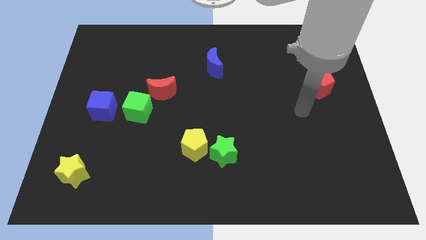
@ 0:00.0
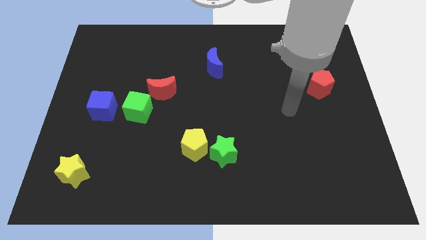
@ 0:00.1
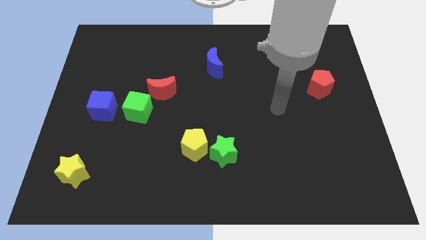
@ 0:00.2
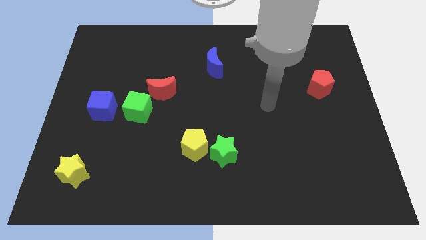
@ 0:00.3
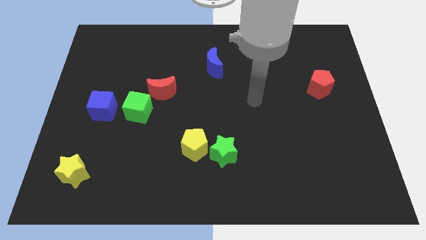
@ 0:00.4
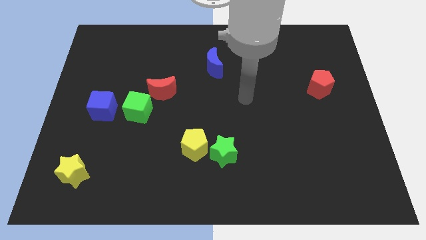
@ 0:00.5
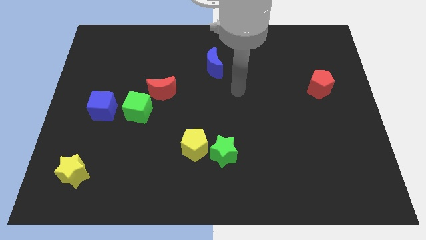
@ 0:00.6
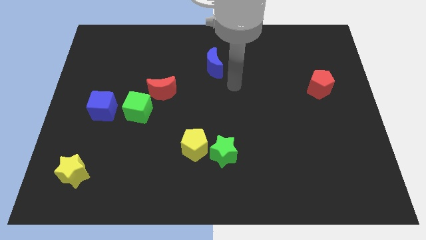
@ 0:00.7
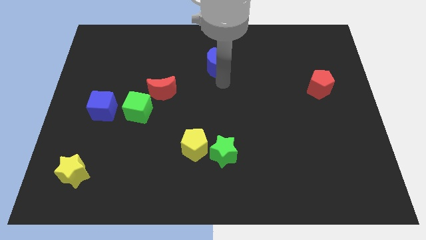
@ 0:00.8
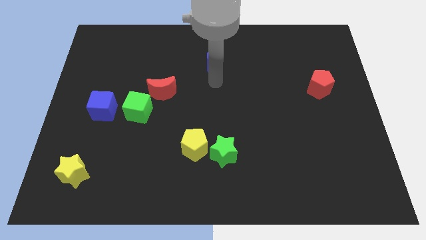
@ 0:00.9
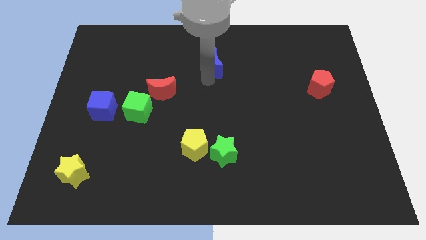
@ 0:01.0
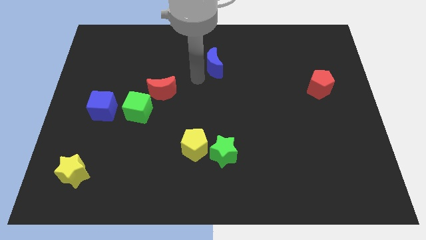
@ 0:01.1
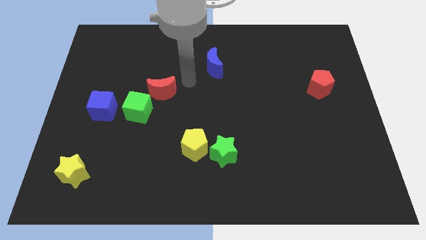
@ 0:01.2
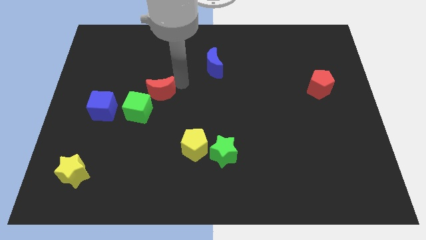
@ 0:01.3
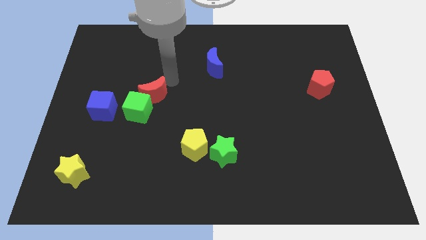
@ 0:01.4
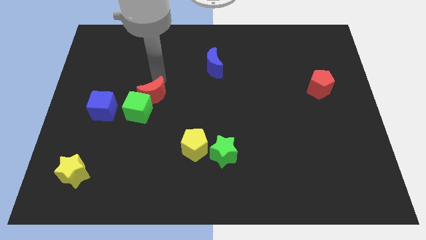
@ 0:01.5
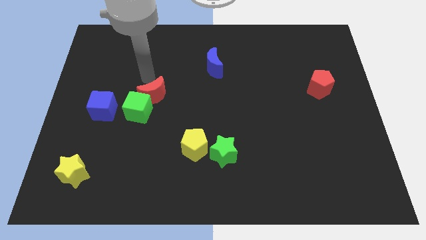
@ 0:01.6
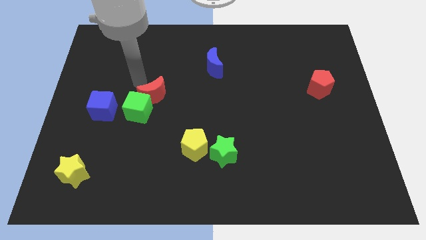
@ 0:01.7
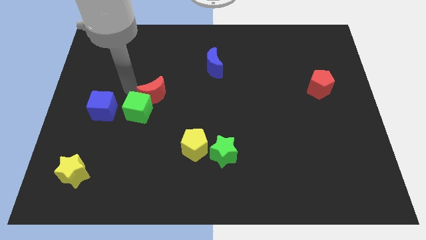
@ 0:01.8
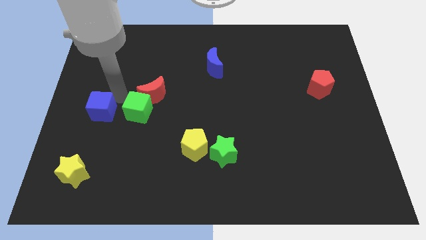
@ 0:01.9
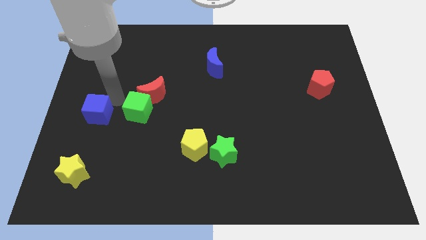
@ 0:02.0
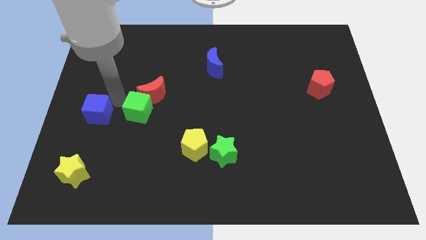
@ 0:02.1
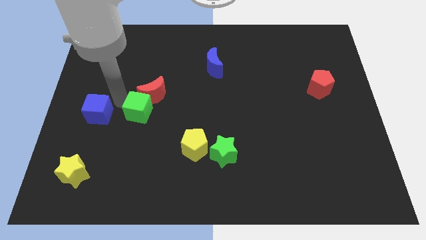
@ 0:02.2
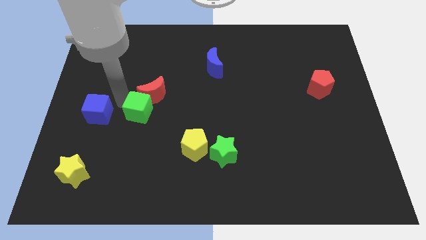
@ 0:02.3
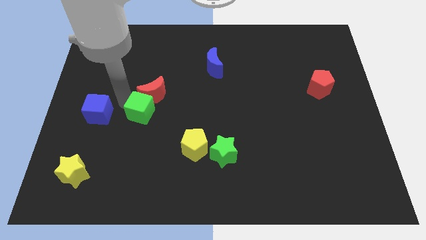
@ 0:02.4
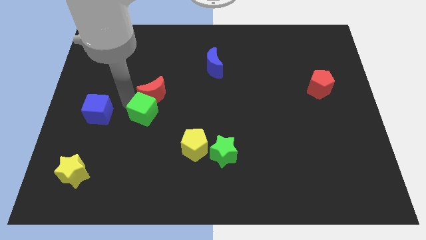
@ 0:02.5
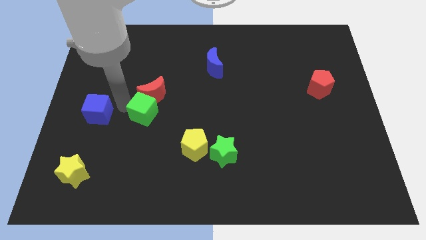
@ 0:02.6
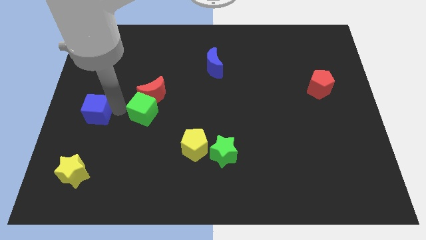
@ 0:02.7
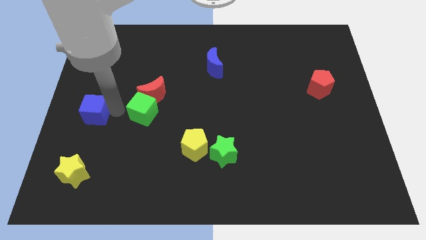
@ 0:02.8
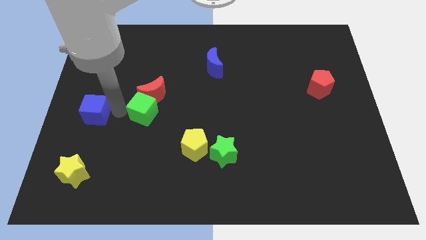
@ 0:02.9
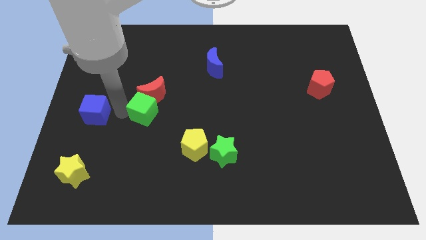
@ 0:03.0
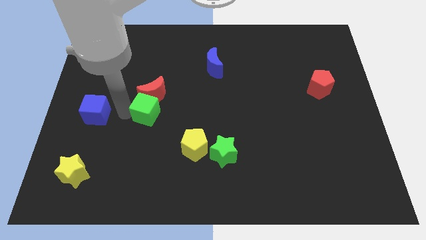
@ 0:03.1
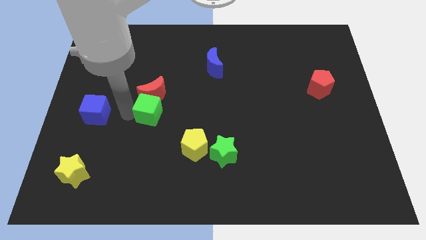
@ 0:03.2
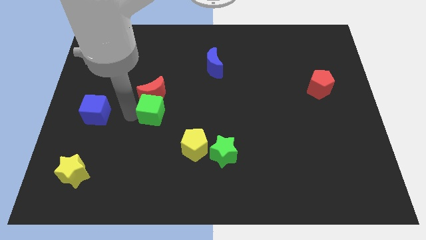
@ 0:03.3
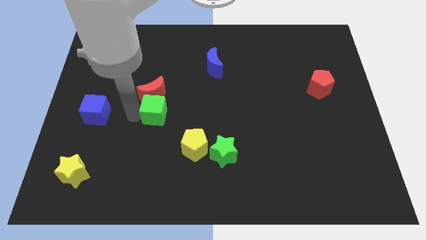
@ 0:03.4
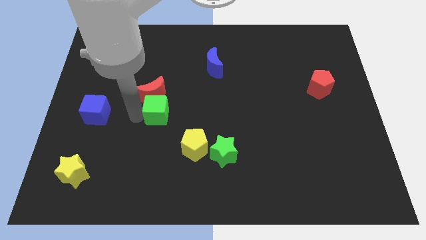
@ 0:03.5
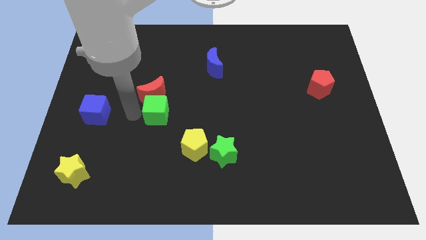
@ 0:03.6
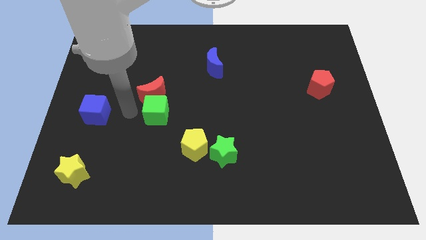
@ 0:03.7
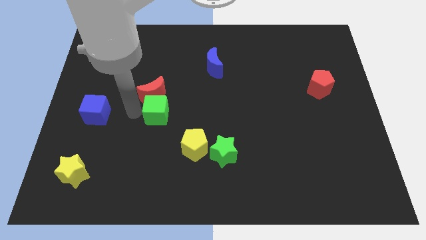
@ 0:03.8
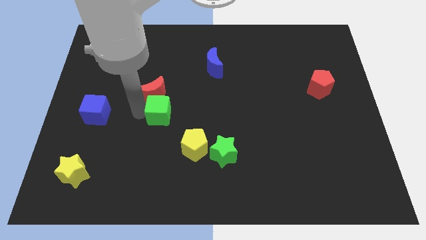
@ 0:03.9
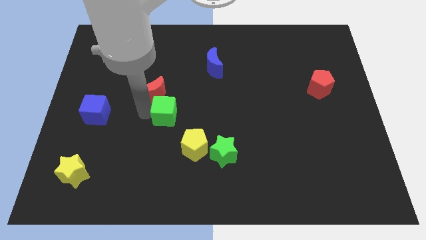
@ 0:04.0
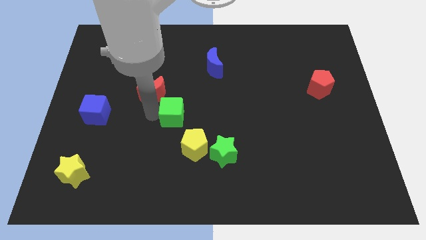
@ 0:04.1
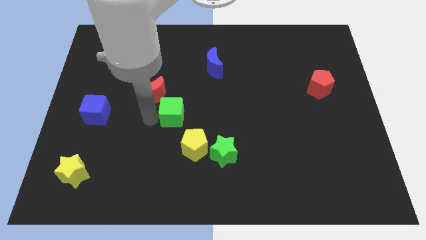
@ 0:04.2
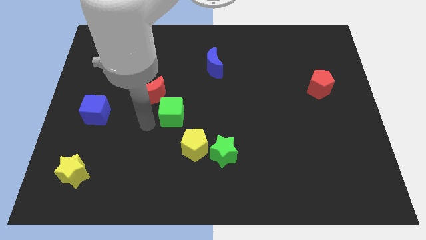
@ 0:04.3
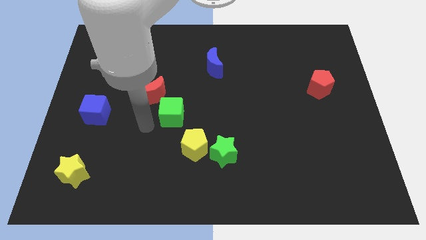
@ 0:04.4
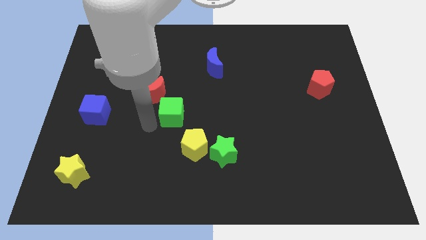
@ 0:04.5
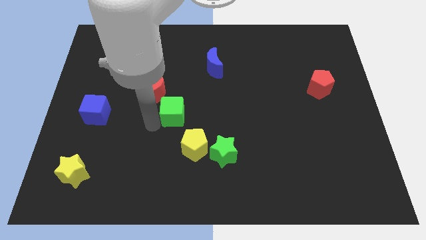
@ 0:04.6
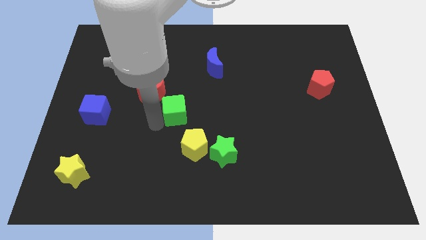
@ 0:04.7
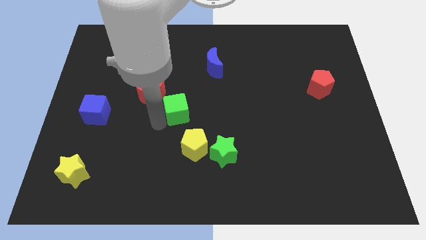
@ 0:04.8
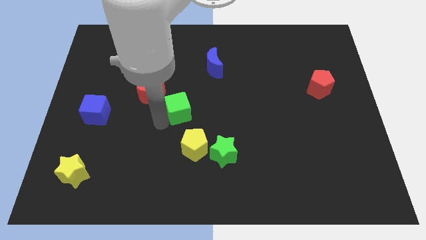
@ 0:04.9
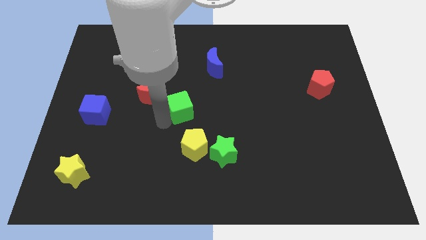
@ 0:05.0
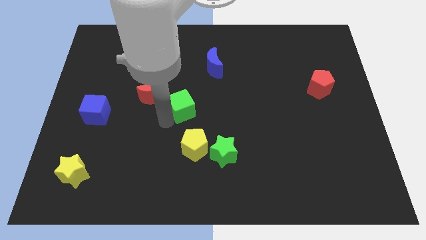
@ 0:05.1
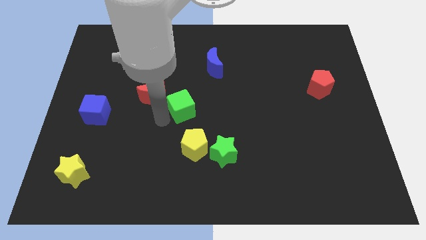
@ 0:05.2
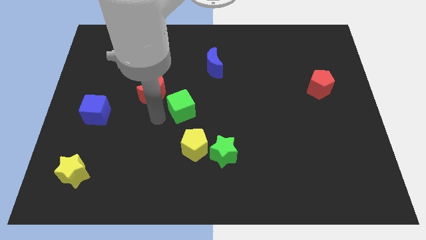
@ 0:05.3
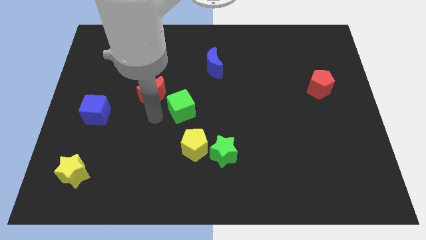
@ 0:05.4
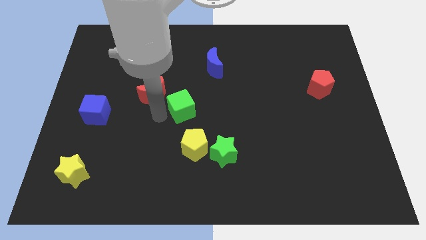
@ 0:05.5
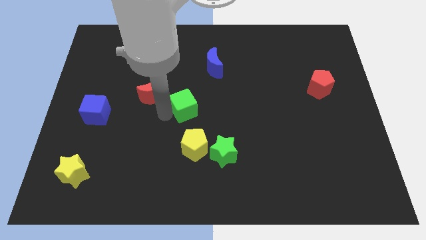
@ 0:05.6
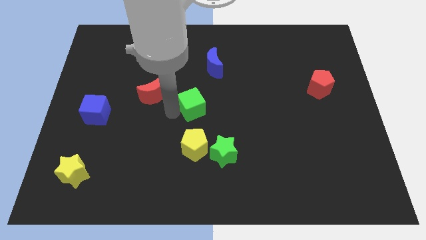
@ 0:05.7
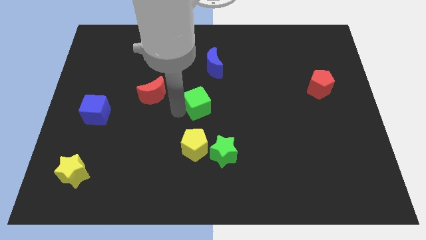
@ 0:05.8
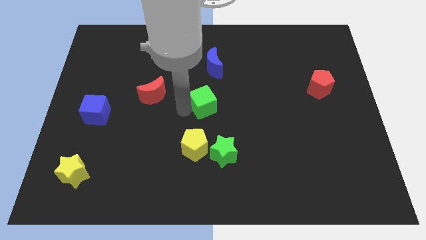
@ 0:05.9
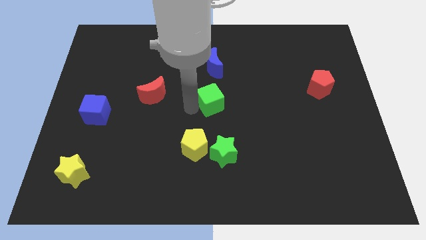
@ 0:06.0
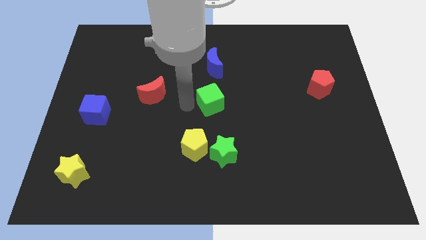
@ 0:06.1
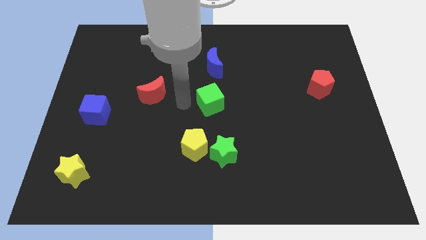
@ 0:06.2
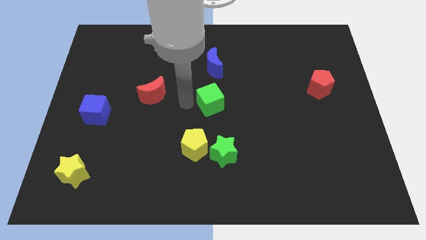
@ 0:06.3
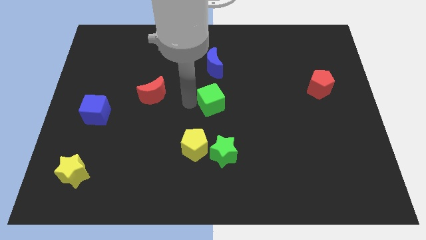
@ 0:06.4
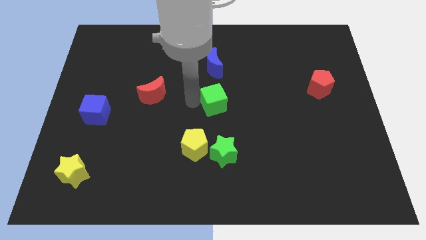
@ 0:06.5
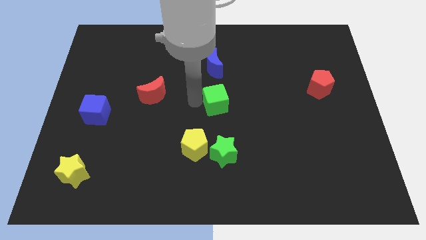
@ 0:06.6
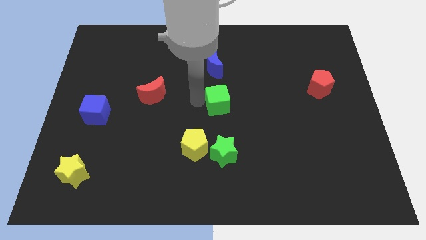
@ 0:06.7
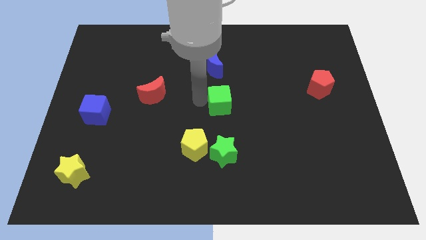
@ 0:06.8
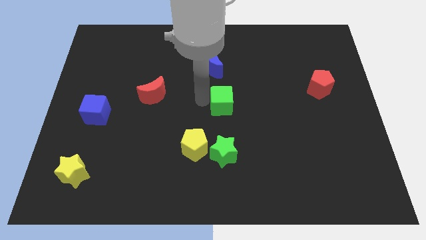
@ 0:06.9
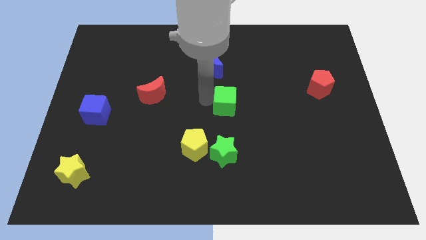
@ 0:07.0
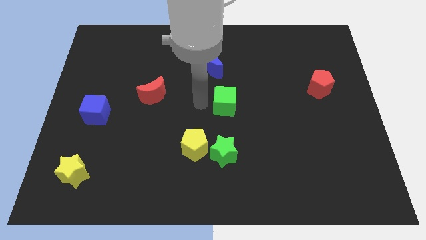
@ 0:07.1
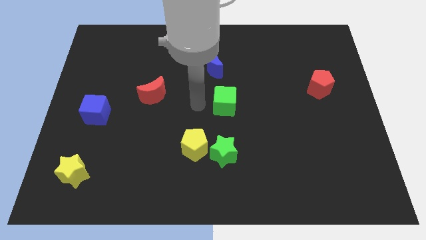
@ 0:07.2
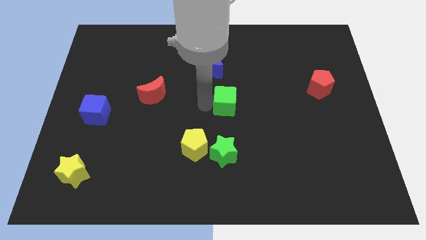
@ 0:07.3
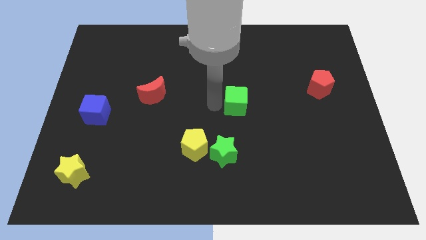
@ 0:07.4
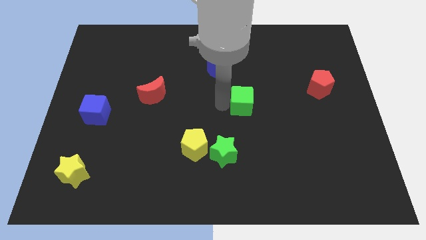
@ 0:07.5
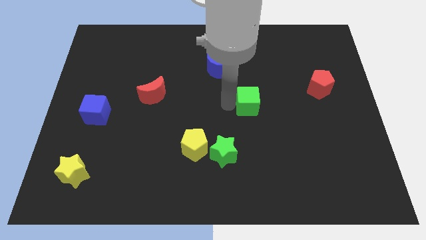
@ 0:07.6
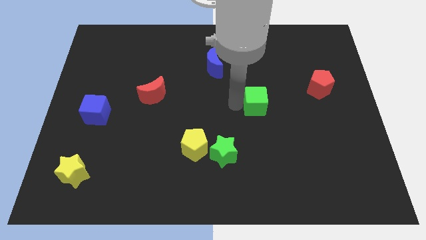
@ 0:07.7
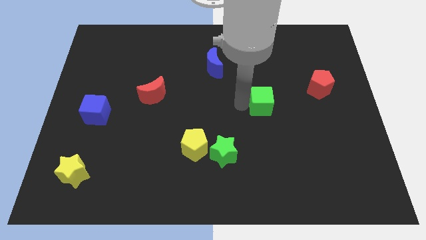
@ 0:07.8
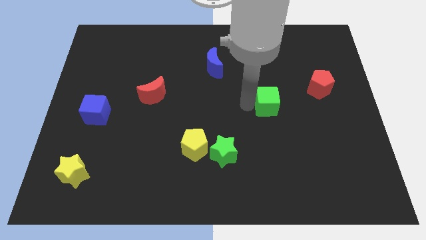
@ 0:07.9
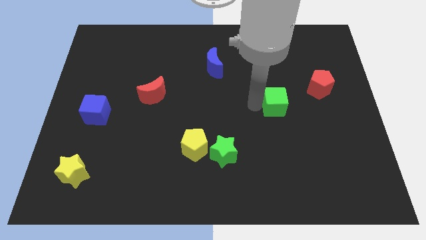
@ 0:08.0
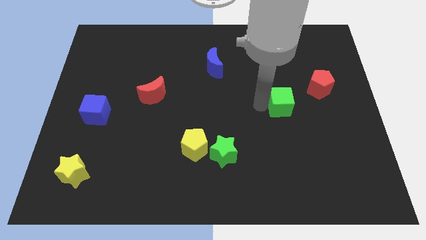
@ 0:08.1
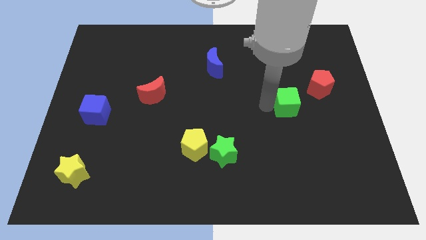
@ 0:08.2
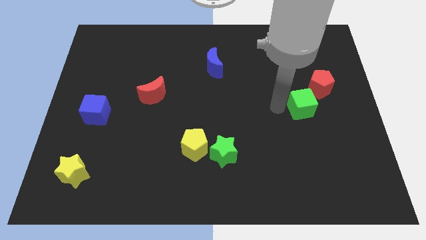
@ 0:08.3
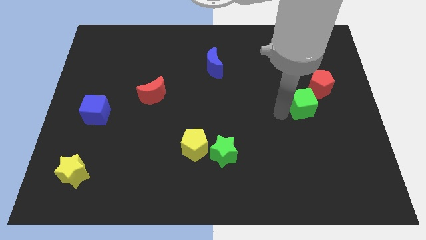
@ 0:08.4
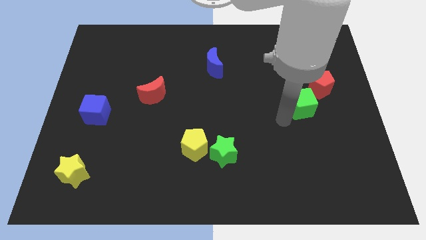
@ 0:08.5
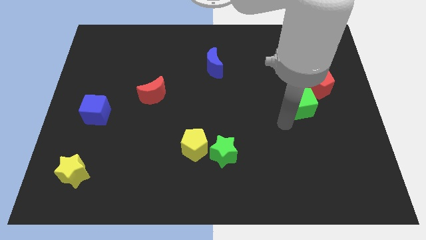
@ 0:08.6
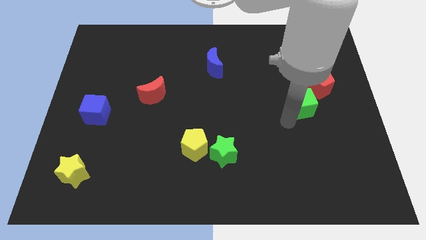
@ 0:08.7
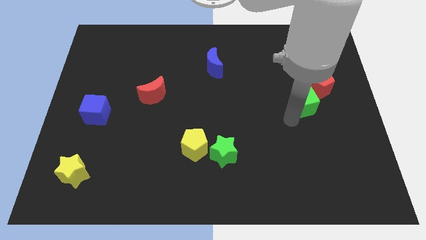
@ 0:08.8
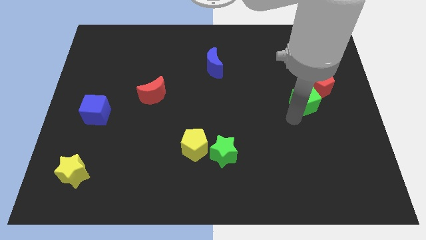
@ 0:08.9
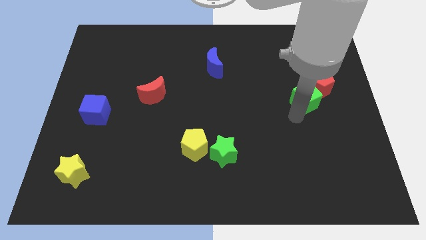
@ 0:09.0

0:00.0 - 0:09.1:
push the green cube close to the red pentagon
